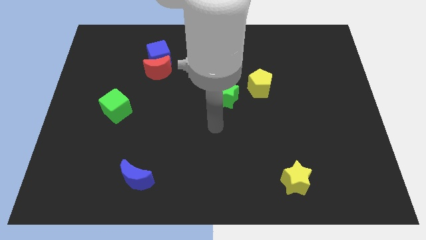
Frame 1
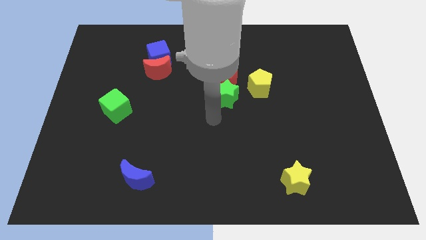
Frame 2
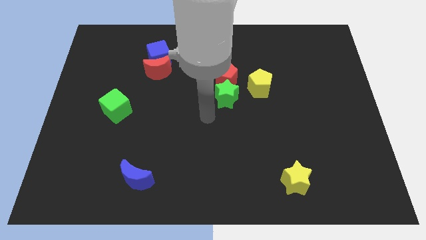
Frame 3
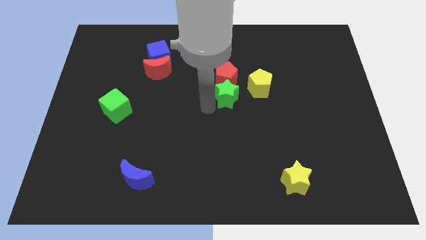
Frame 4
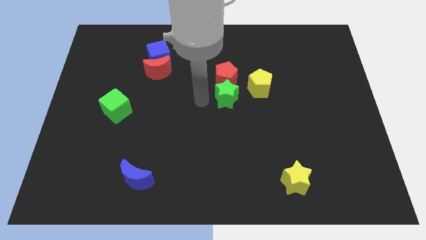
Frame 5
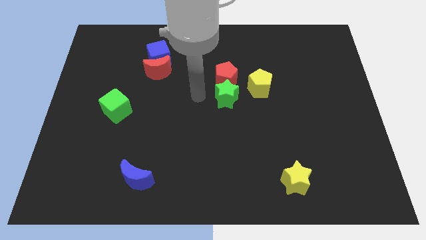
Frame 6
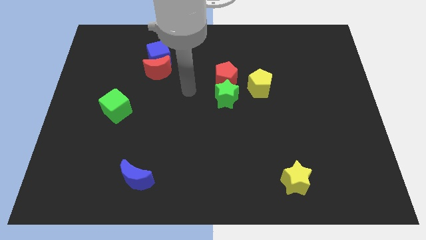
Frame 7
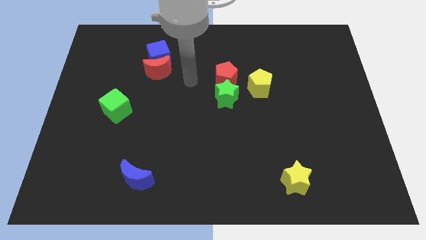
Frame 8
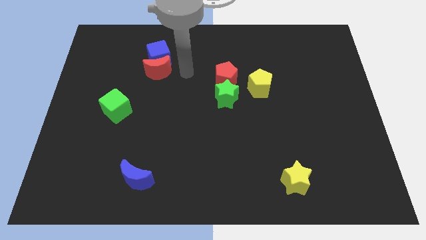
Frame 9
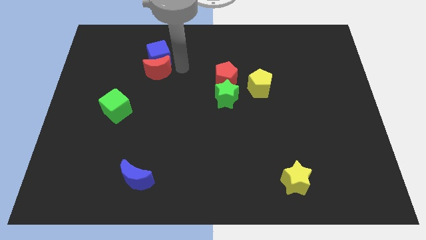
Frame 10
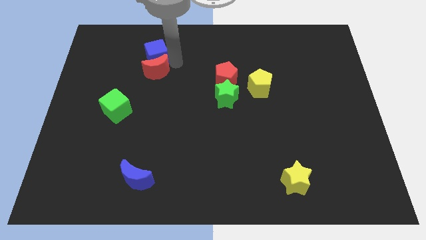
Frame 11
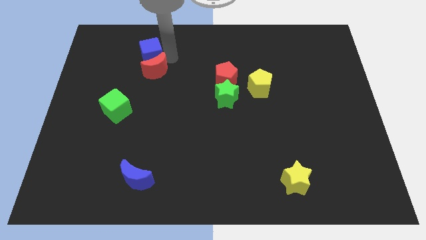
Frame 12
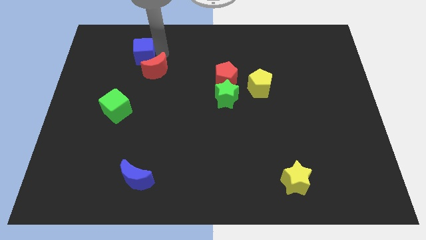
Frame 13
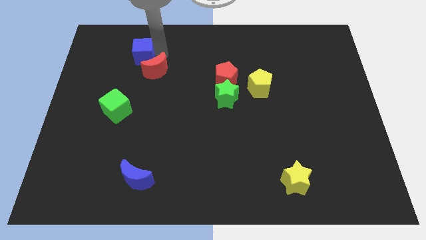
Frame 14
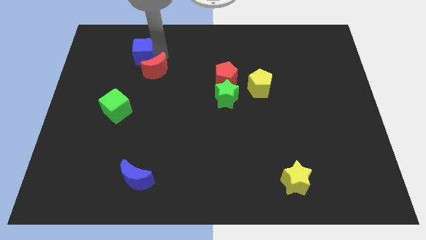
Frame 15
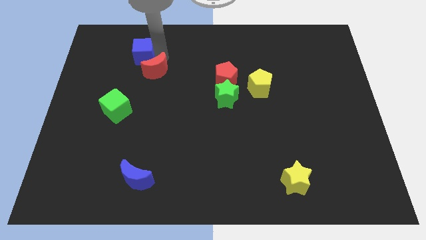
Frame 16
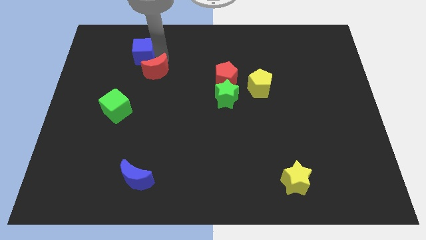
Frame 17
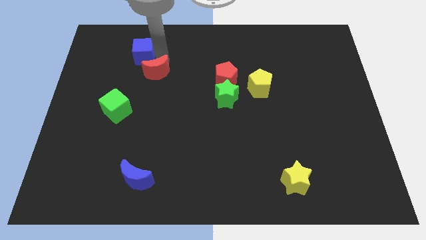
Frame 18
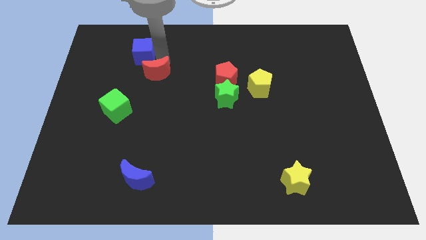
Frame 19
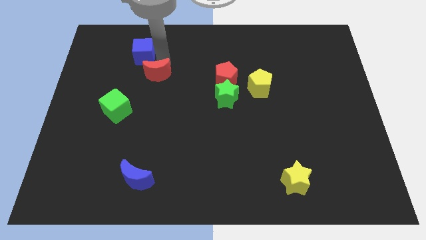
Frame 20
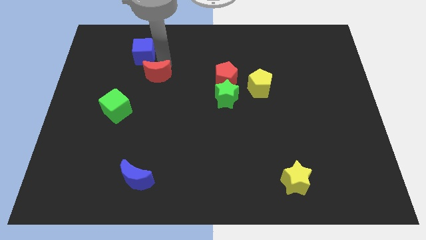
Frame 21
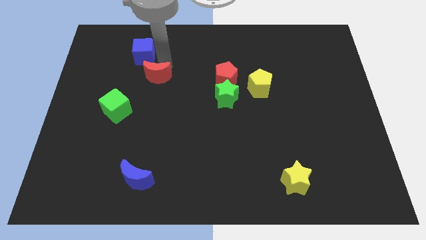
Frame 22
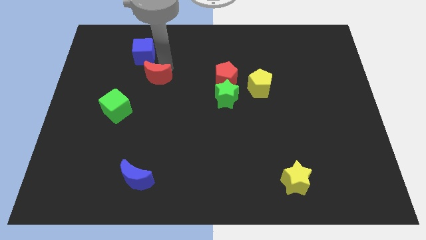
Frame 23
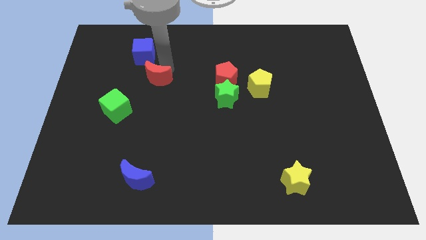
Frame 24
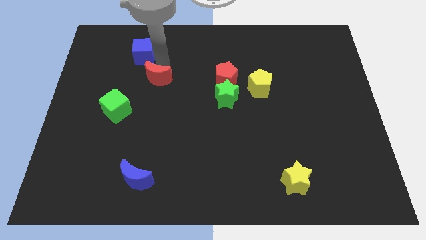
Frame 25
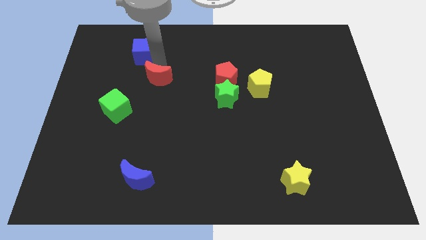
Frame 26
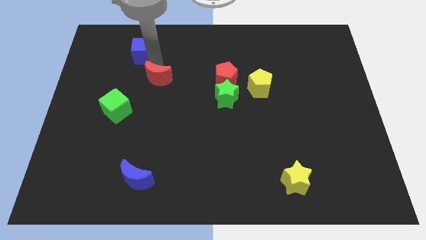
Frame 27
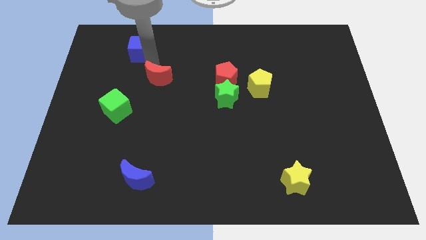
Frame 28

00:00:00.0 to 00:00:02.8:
move the red moon away from the blue cube

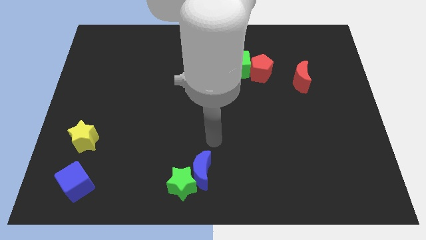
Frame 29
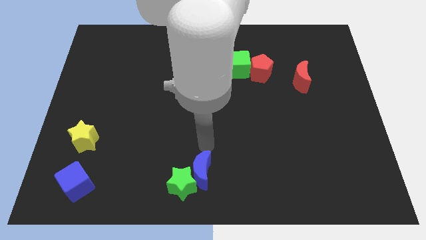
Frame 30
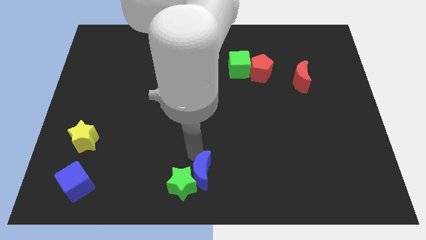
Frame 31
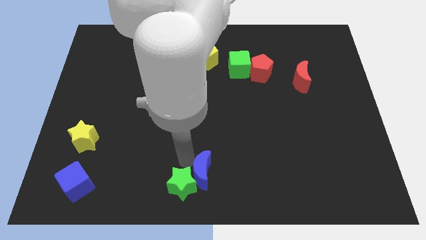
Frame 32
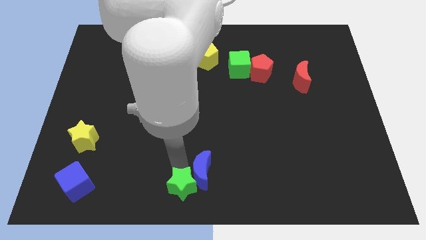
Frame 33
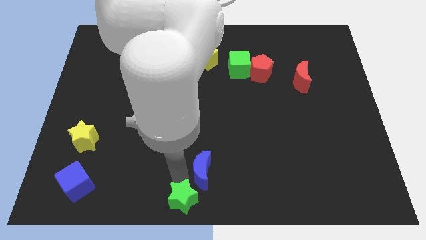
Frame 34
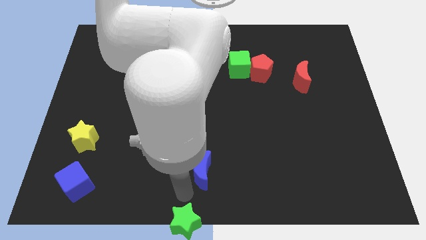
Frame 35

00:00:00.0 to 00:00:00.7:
separate the blue moon from the green star

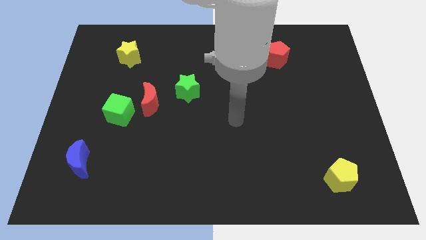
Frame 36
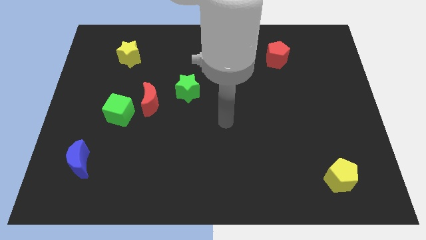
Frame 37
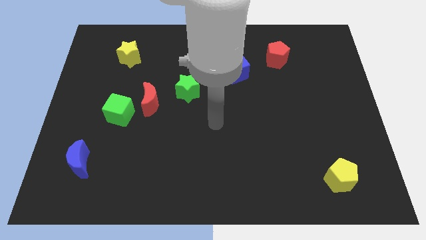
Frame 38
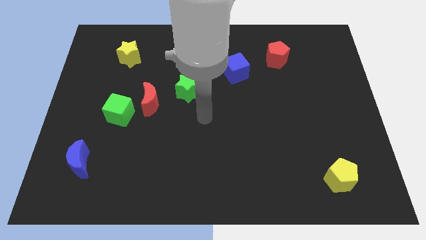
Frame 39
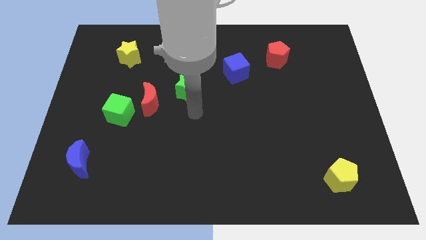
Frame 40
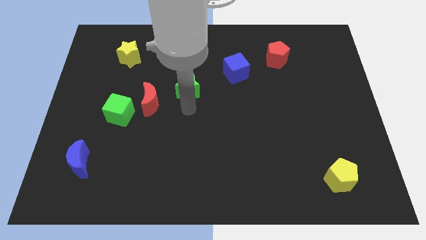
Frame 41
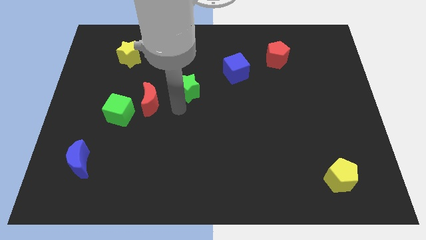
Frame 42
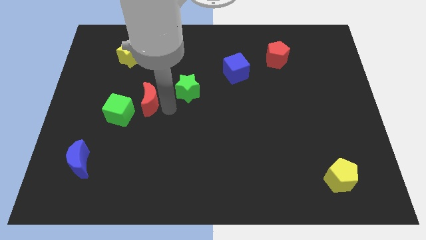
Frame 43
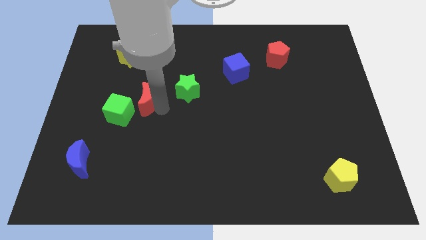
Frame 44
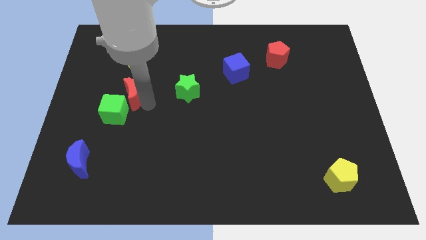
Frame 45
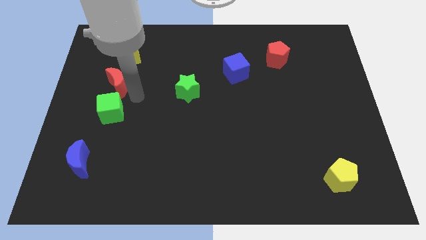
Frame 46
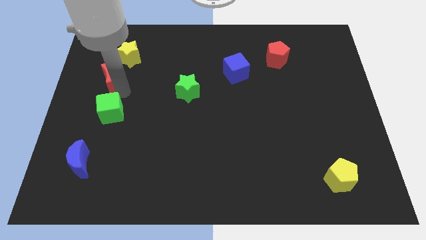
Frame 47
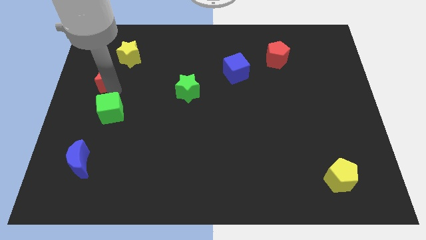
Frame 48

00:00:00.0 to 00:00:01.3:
move the green cube away from the red moon

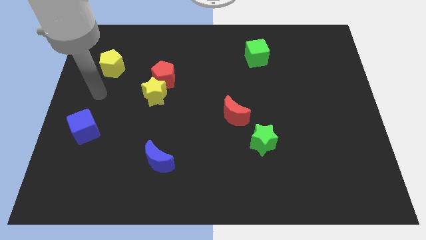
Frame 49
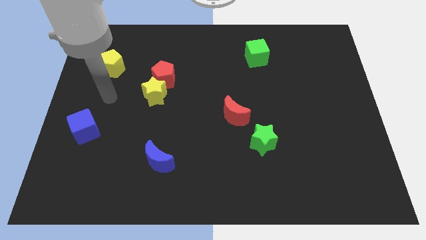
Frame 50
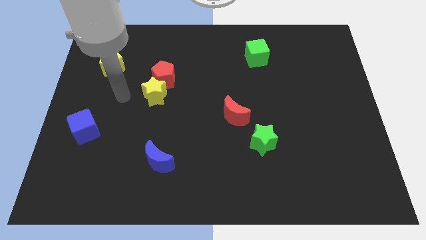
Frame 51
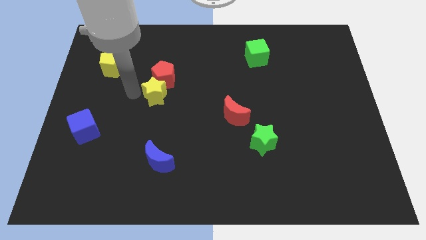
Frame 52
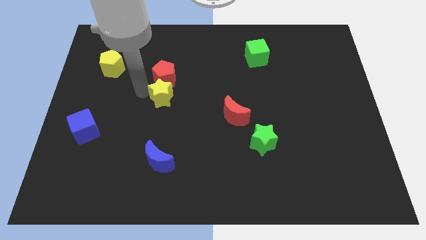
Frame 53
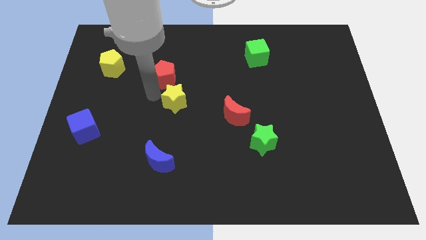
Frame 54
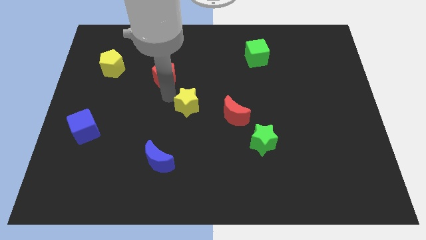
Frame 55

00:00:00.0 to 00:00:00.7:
separate the red pentagon from the yellow star

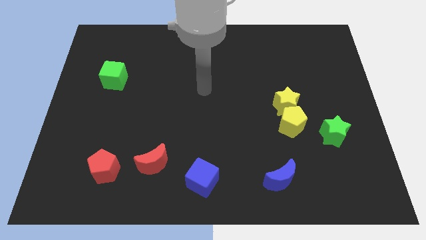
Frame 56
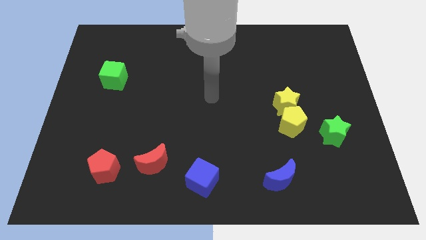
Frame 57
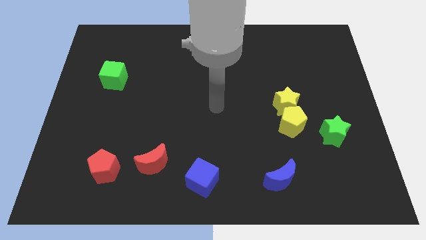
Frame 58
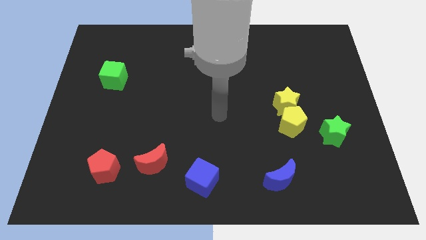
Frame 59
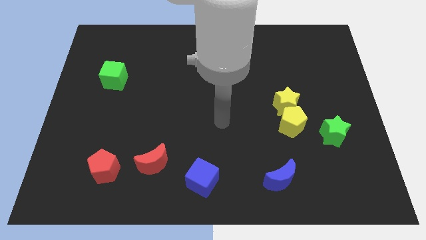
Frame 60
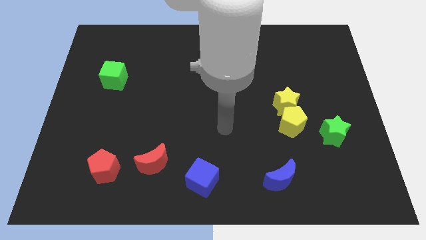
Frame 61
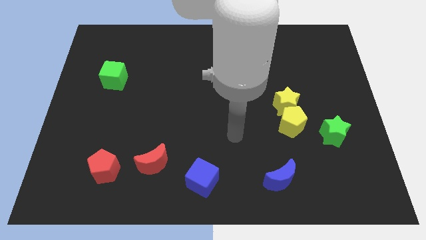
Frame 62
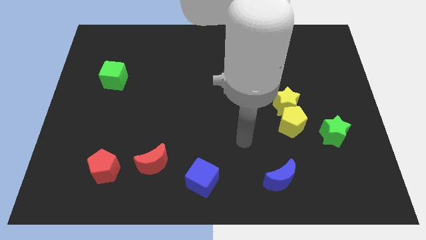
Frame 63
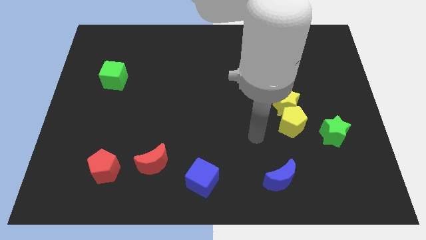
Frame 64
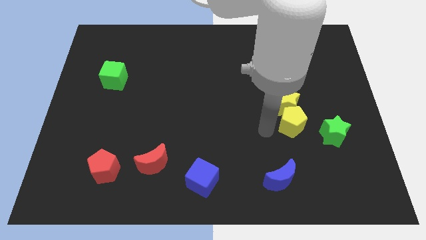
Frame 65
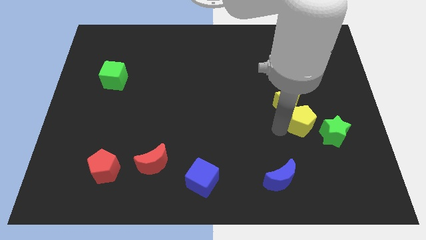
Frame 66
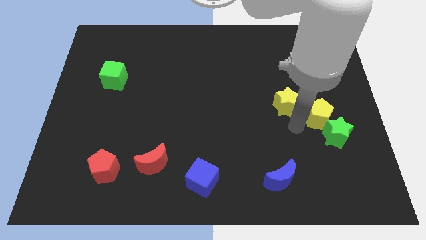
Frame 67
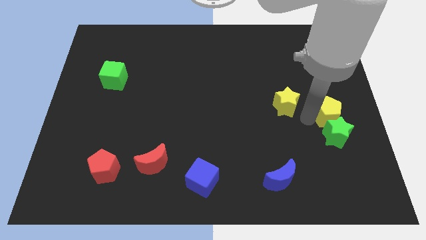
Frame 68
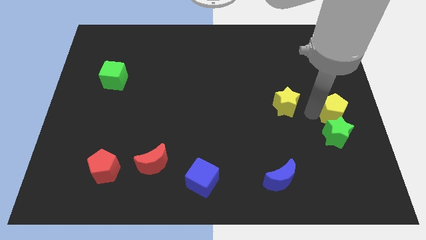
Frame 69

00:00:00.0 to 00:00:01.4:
move the yellow star away from the yellow pentagon

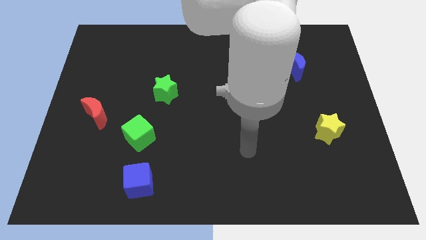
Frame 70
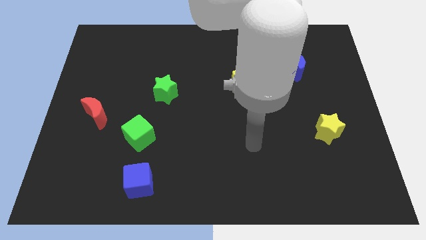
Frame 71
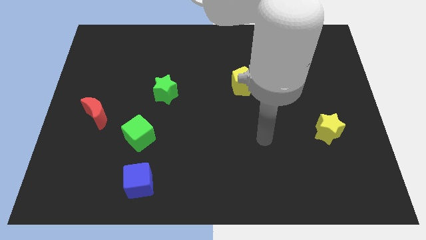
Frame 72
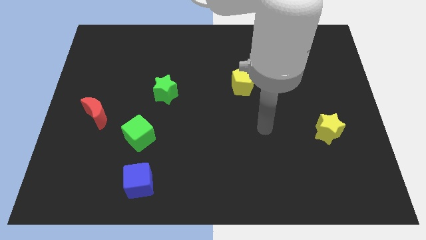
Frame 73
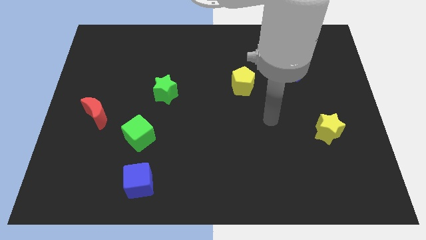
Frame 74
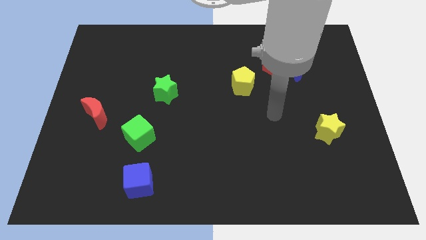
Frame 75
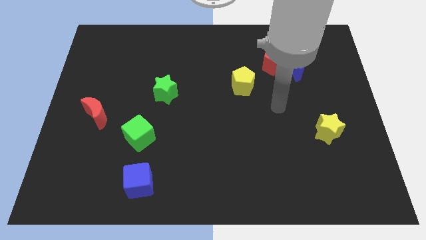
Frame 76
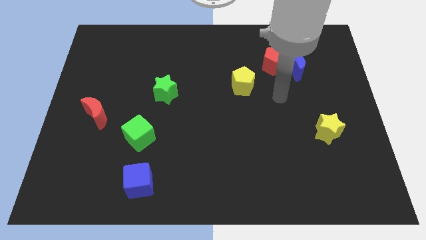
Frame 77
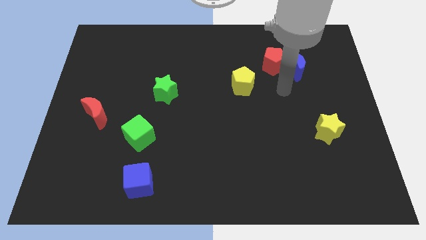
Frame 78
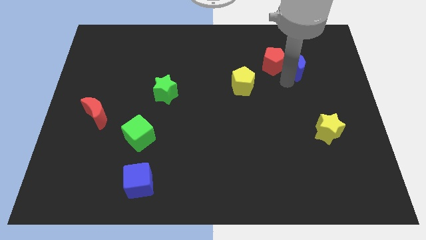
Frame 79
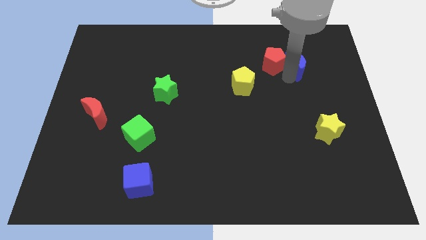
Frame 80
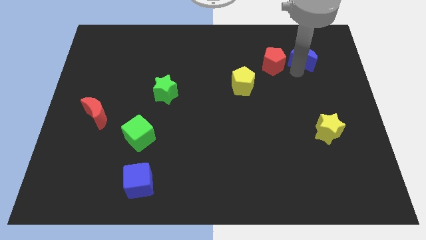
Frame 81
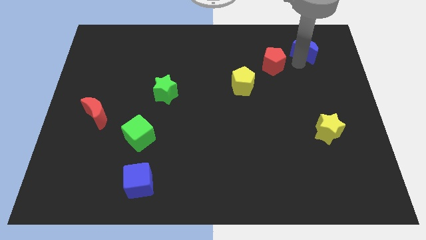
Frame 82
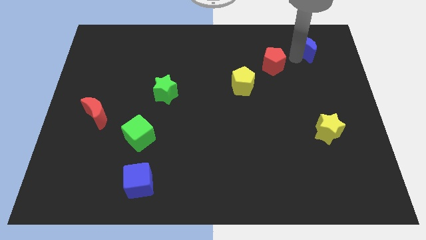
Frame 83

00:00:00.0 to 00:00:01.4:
move the red pentagon away from the blue moon

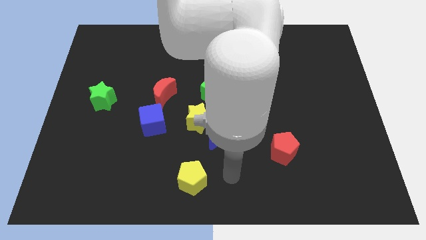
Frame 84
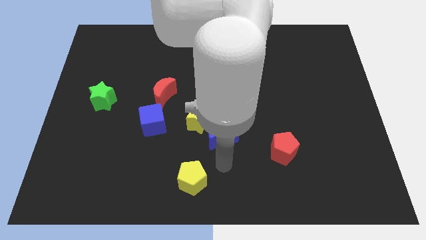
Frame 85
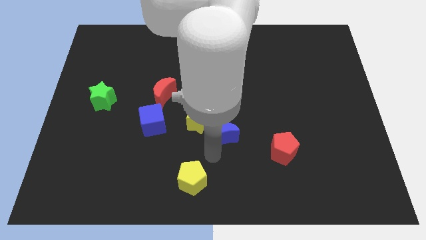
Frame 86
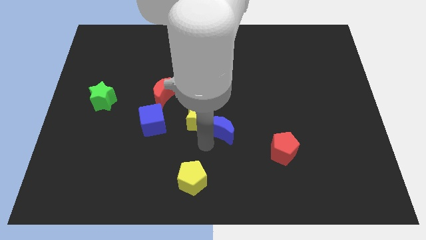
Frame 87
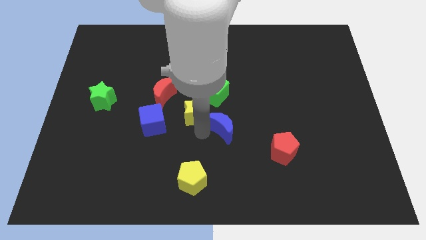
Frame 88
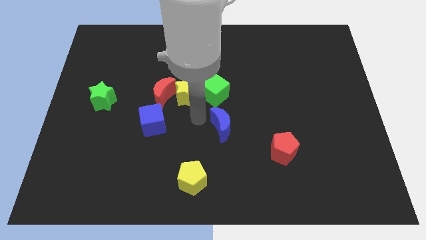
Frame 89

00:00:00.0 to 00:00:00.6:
separate the blue moon from the yellow star

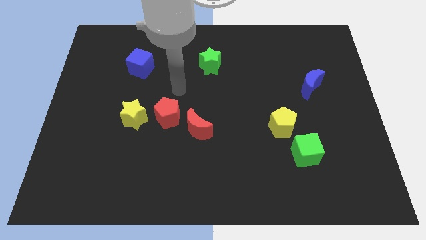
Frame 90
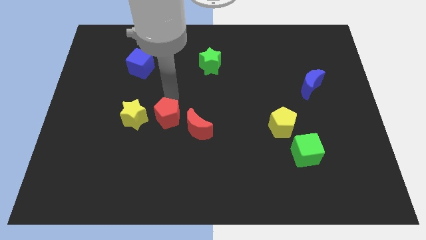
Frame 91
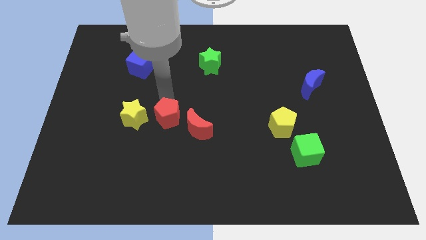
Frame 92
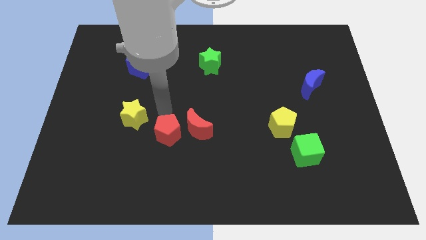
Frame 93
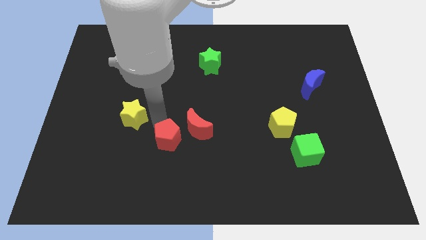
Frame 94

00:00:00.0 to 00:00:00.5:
move the yellow star away from the red pentagon
